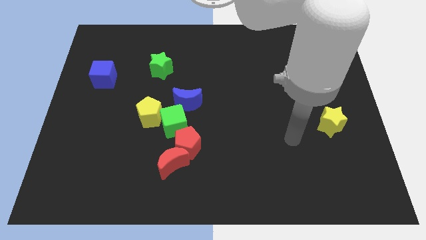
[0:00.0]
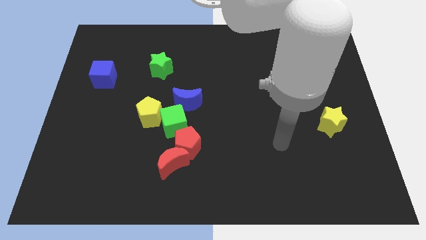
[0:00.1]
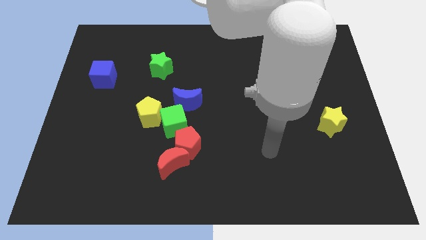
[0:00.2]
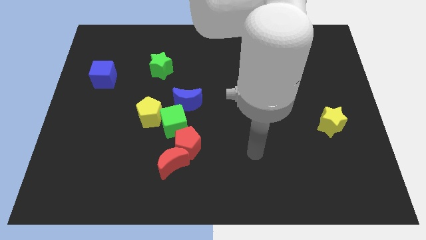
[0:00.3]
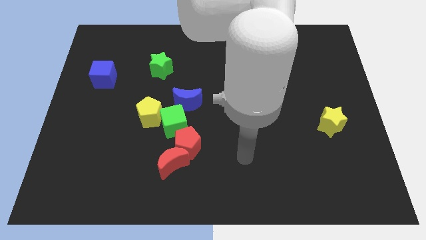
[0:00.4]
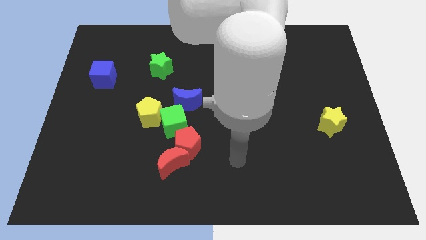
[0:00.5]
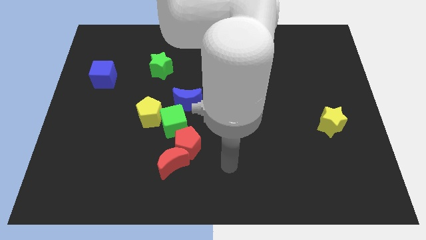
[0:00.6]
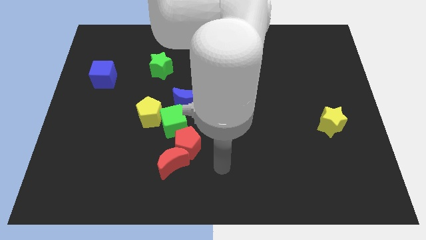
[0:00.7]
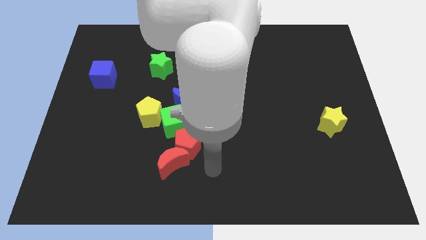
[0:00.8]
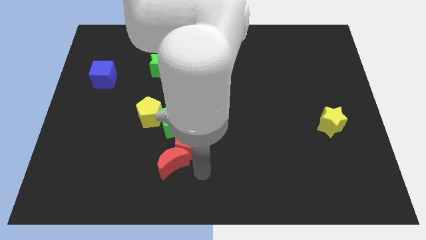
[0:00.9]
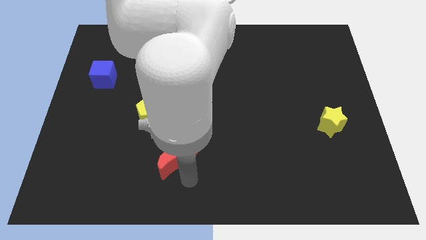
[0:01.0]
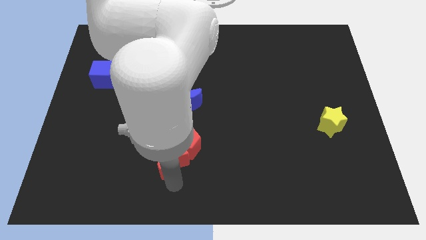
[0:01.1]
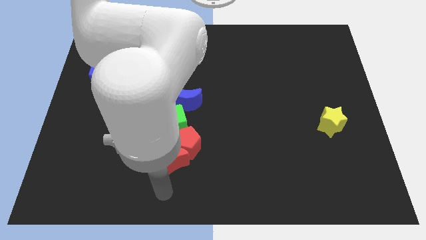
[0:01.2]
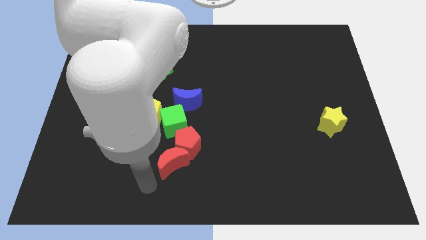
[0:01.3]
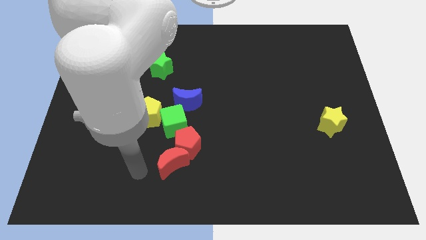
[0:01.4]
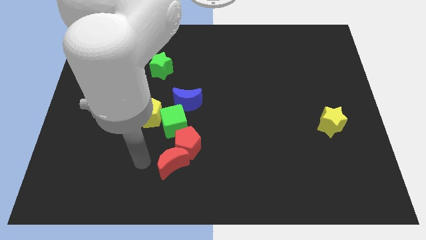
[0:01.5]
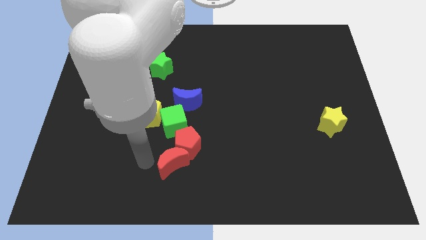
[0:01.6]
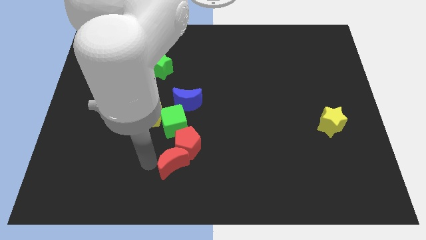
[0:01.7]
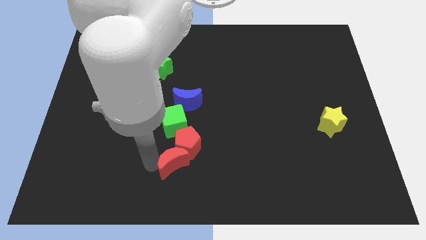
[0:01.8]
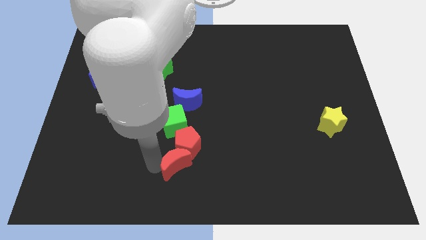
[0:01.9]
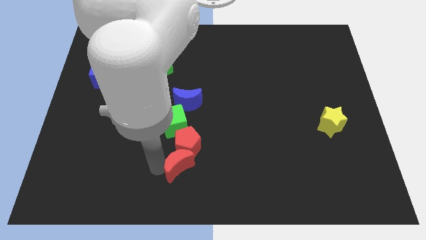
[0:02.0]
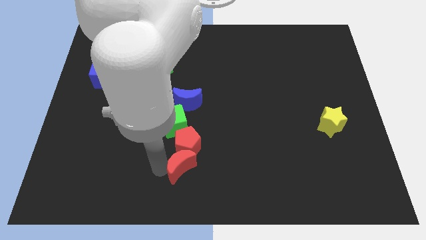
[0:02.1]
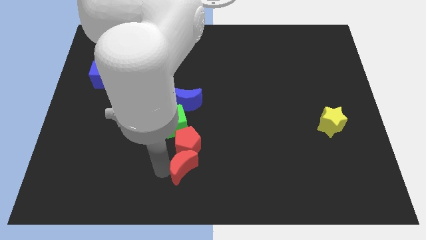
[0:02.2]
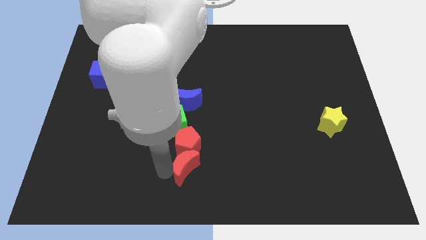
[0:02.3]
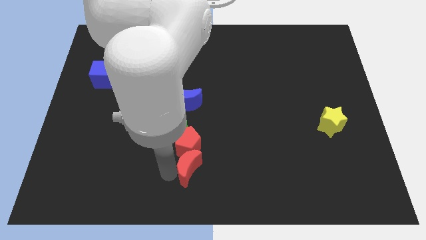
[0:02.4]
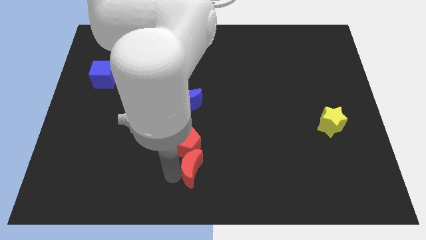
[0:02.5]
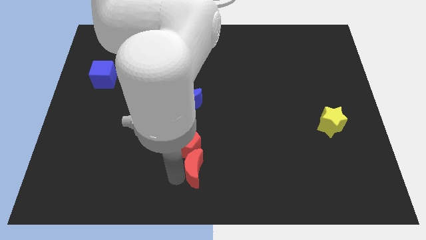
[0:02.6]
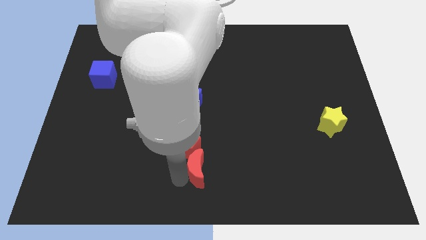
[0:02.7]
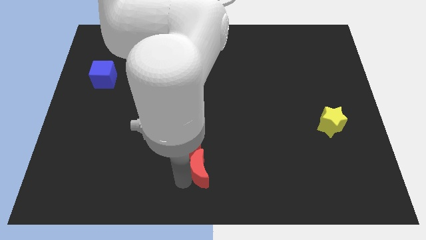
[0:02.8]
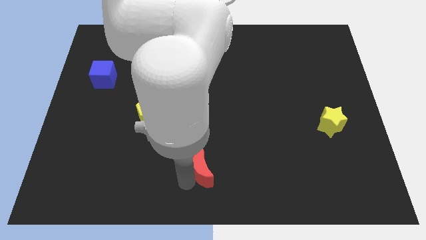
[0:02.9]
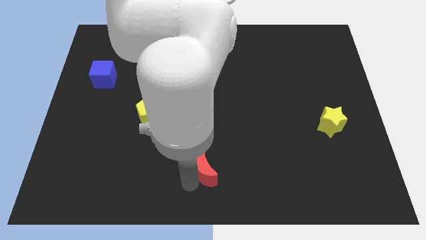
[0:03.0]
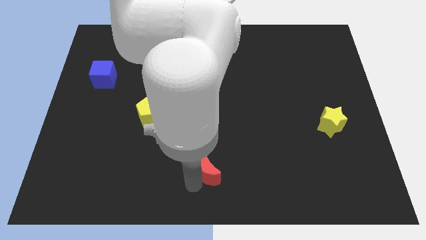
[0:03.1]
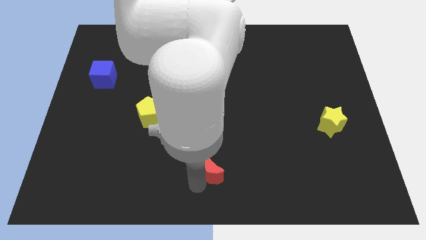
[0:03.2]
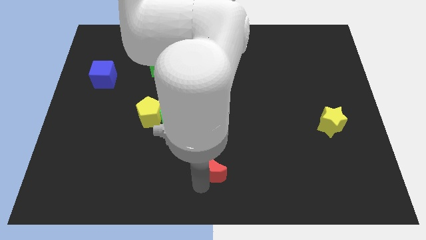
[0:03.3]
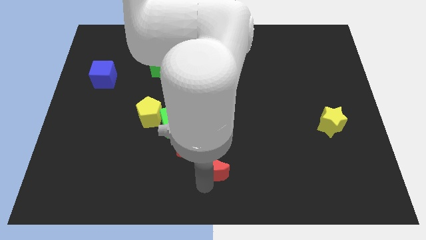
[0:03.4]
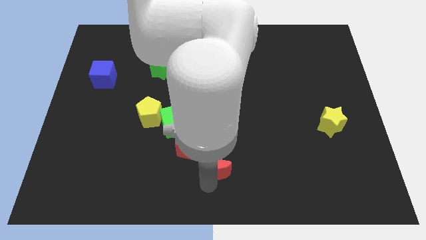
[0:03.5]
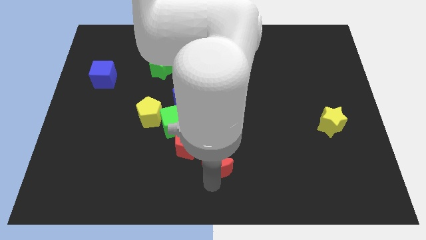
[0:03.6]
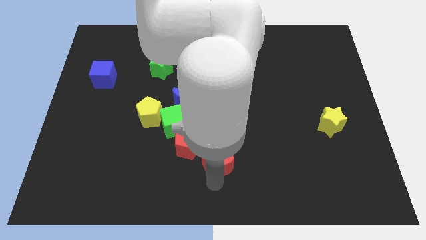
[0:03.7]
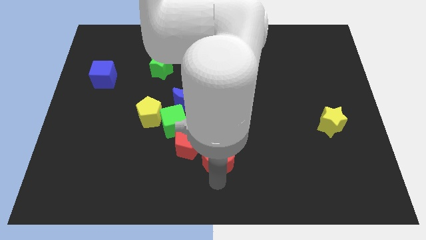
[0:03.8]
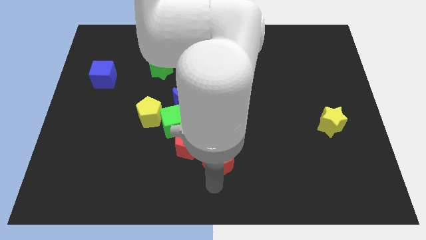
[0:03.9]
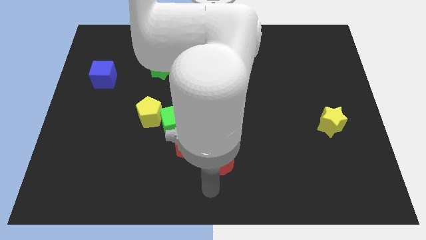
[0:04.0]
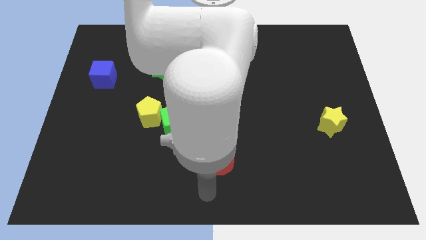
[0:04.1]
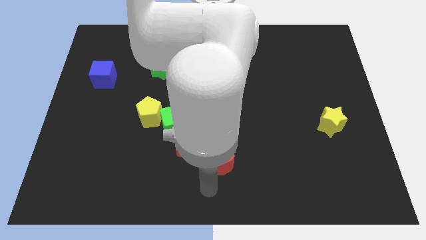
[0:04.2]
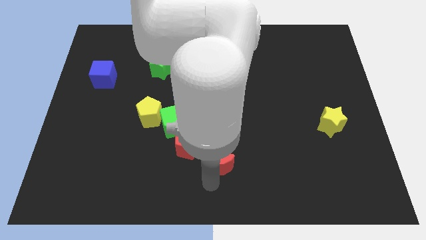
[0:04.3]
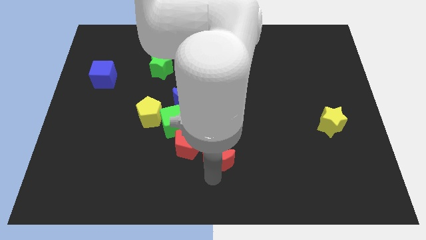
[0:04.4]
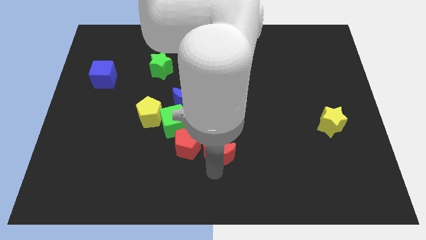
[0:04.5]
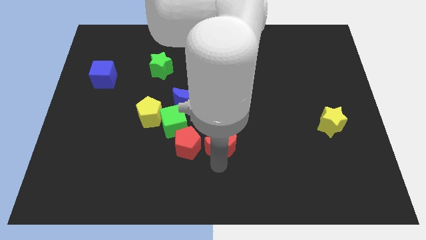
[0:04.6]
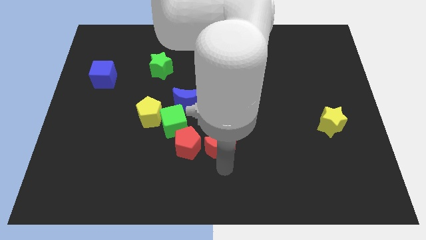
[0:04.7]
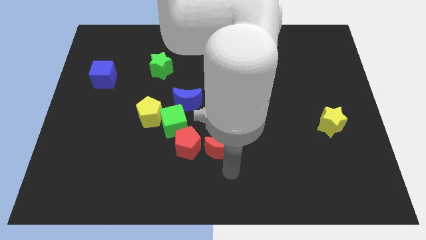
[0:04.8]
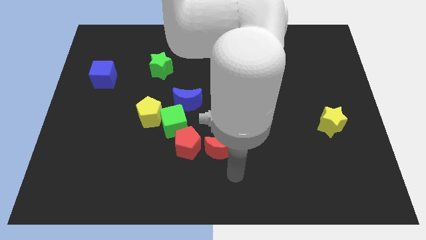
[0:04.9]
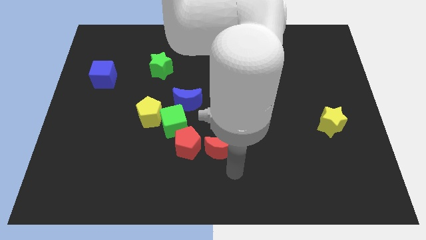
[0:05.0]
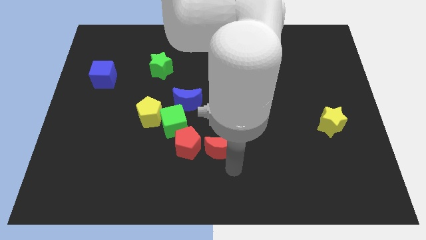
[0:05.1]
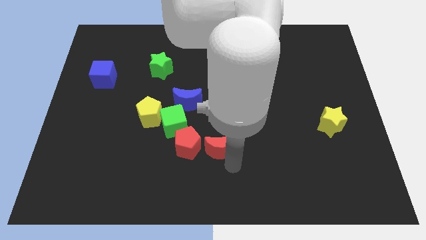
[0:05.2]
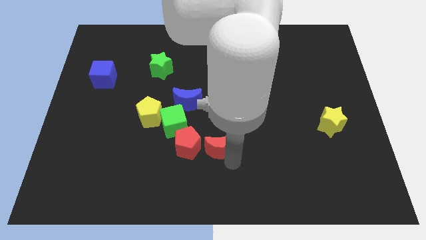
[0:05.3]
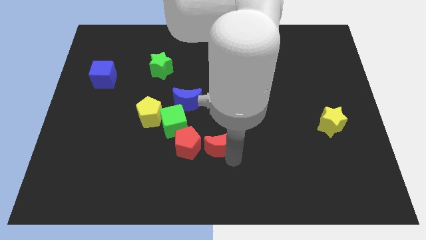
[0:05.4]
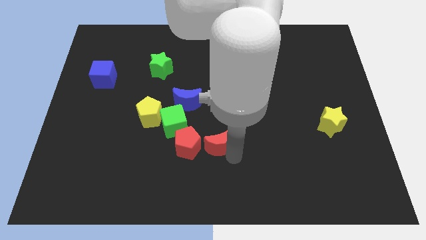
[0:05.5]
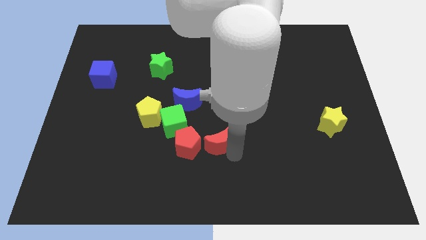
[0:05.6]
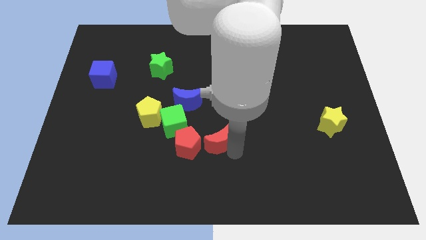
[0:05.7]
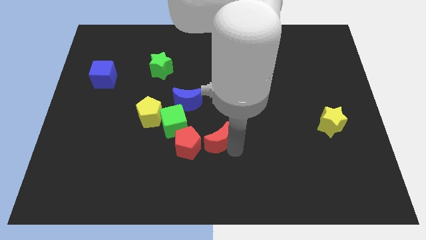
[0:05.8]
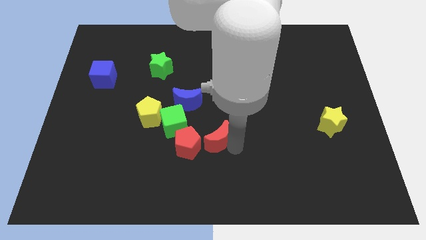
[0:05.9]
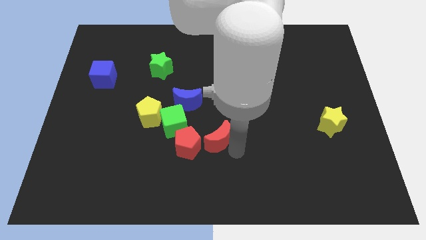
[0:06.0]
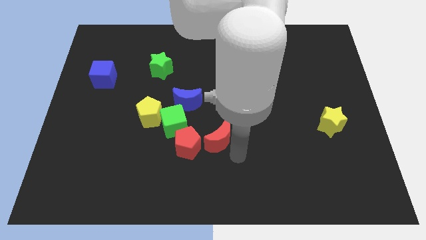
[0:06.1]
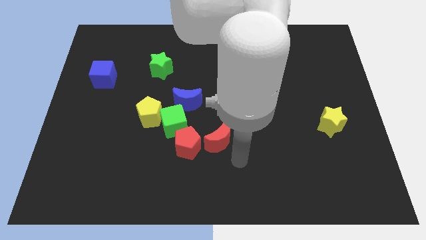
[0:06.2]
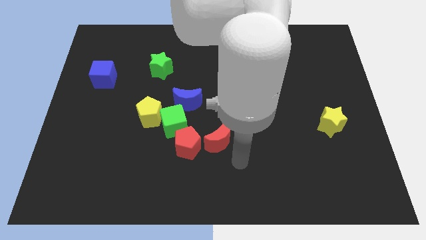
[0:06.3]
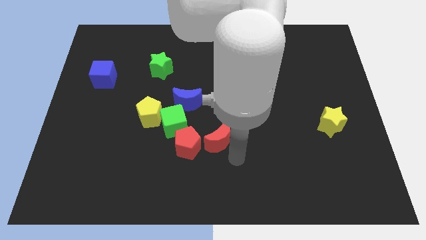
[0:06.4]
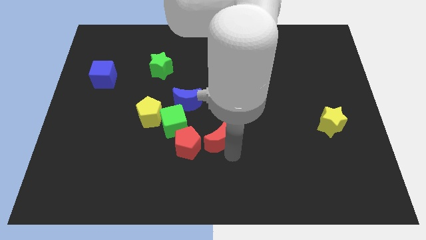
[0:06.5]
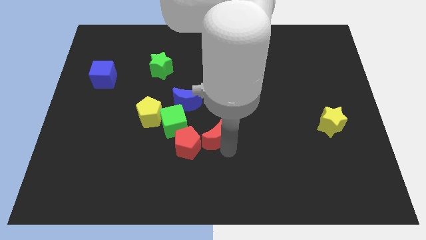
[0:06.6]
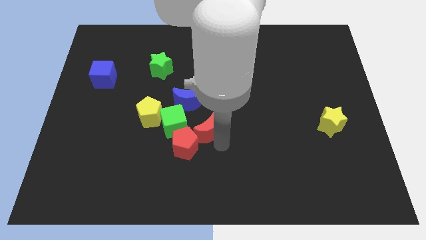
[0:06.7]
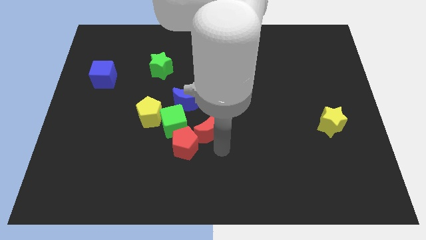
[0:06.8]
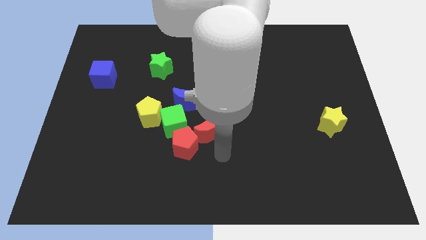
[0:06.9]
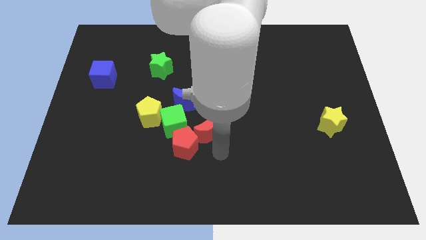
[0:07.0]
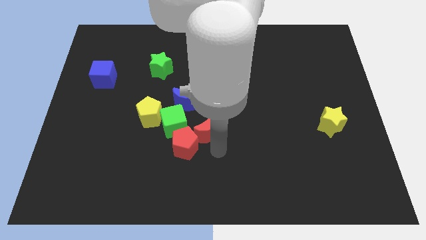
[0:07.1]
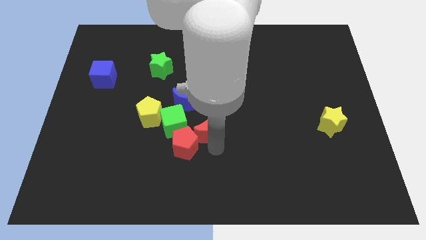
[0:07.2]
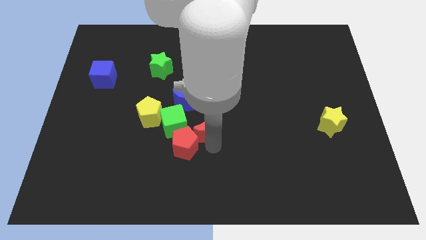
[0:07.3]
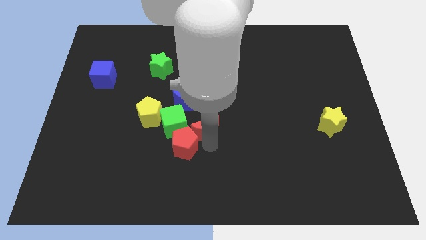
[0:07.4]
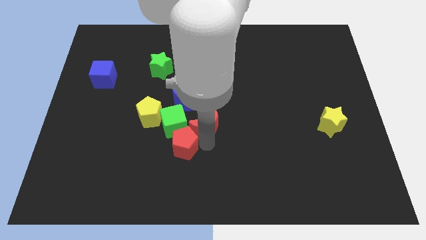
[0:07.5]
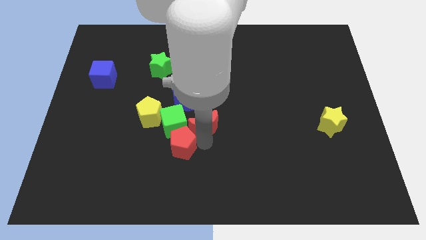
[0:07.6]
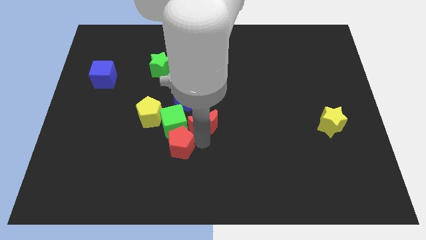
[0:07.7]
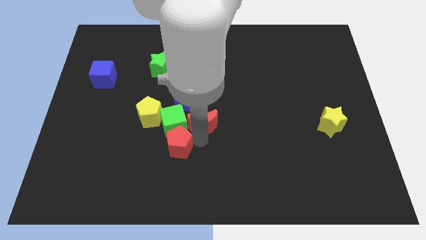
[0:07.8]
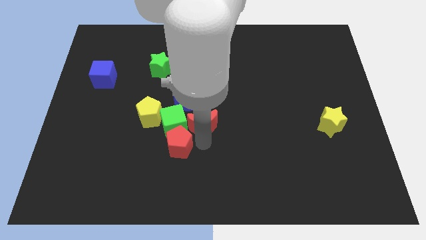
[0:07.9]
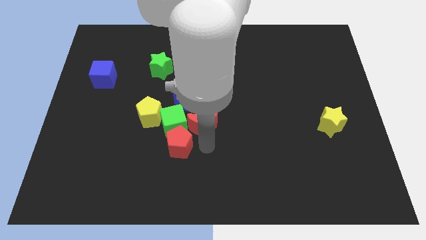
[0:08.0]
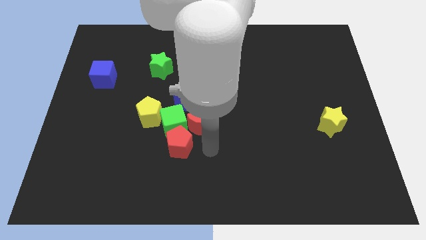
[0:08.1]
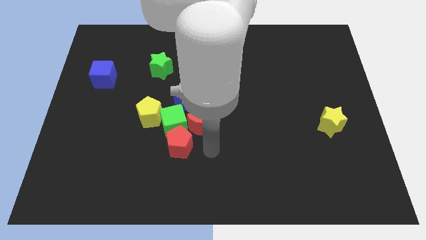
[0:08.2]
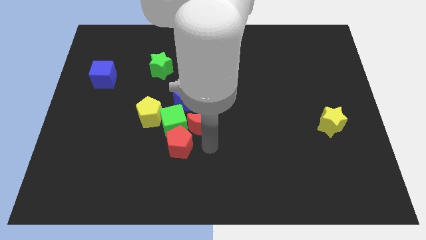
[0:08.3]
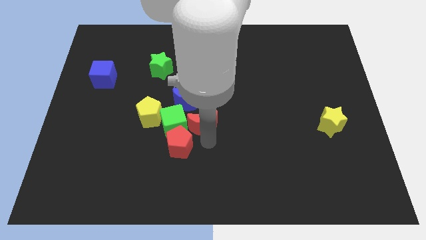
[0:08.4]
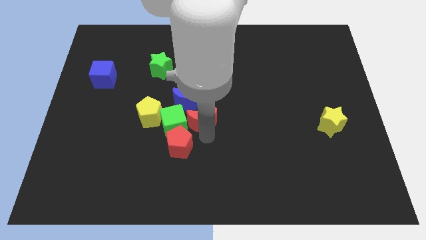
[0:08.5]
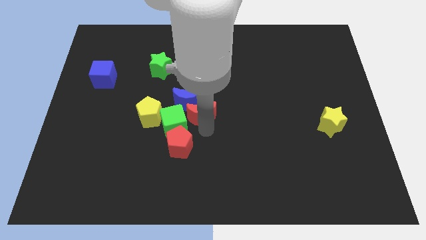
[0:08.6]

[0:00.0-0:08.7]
slide the red moon towards the blue moon
